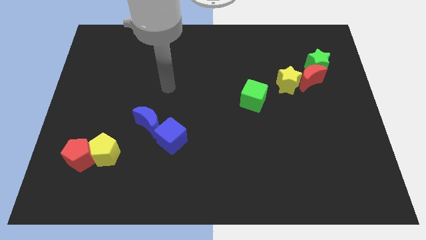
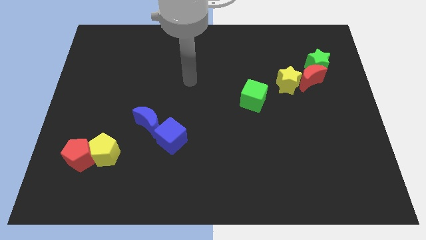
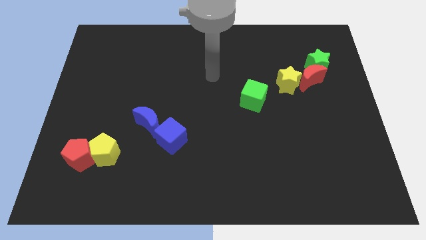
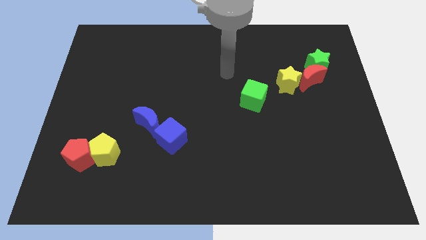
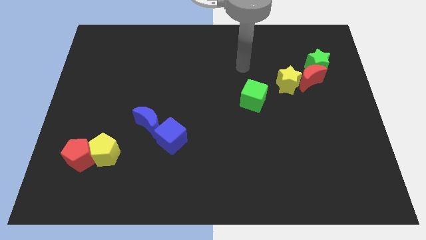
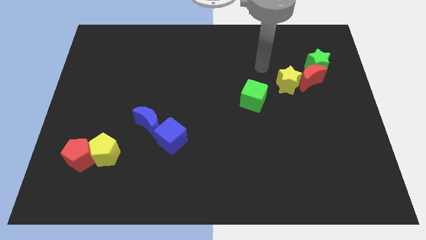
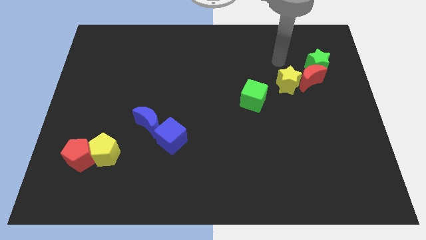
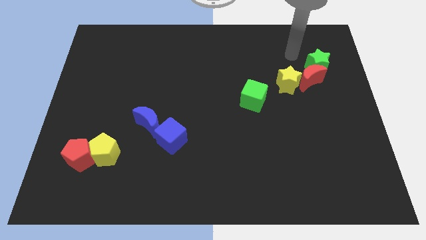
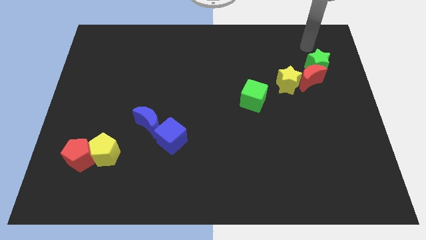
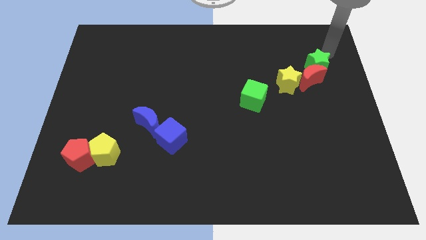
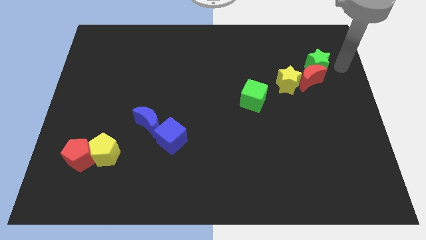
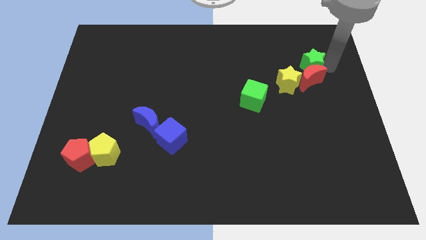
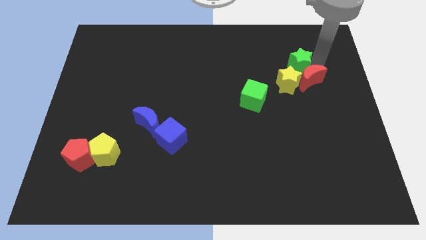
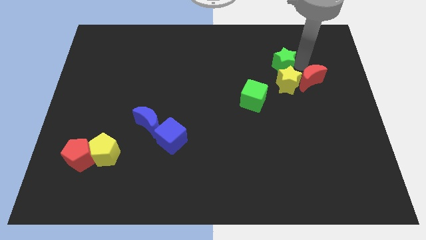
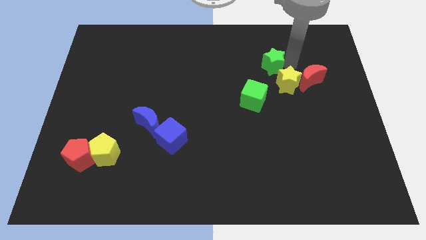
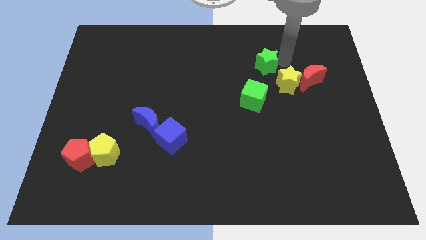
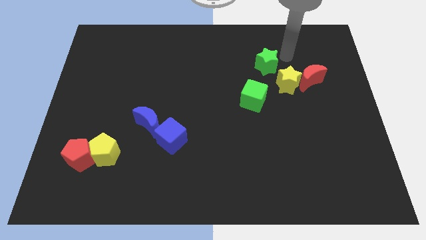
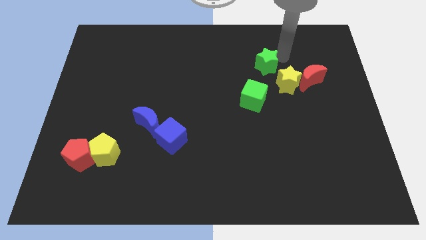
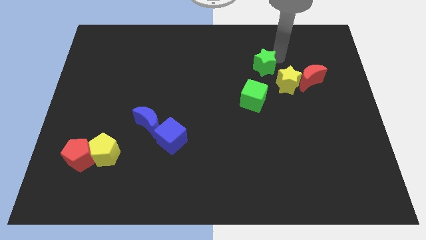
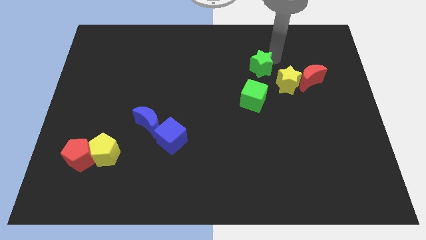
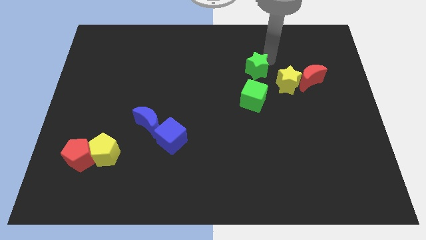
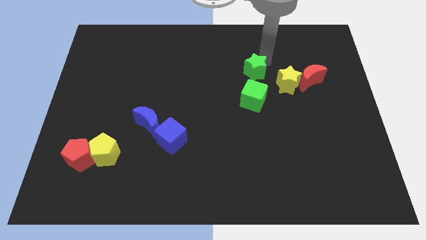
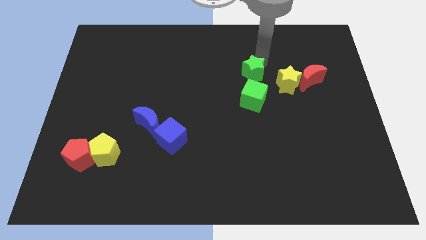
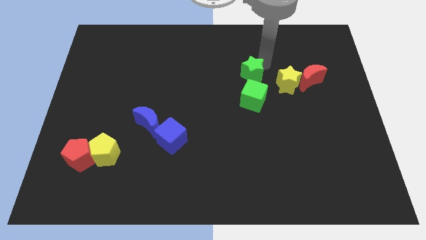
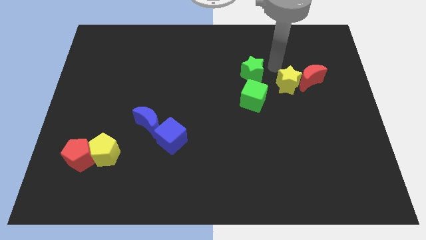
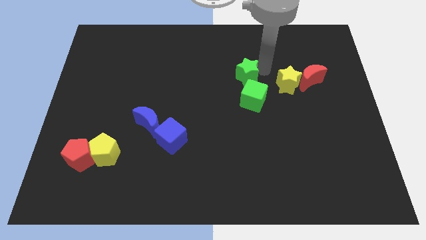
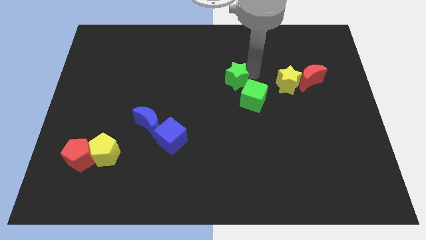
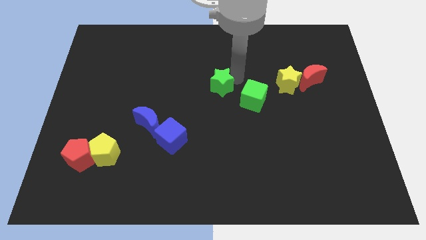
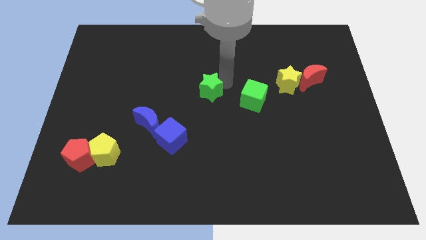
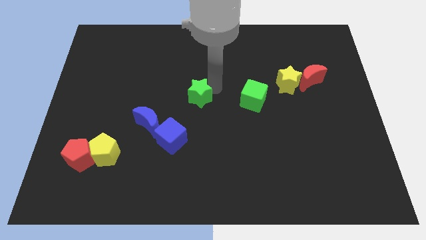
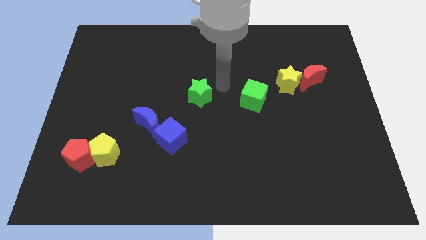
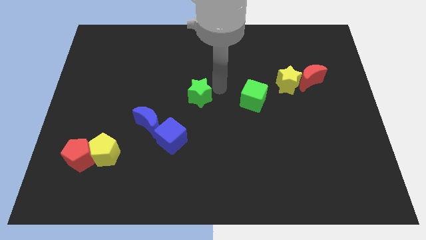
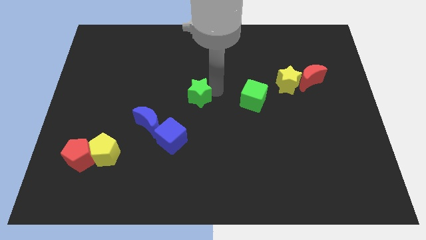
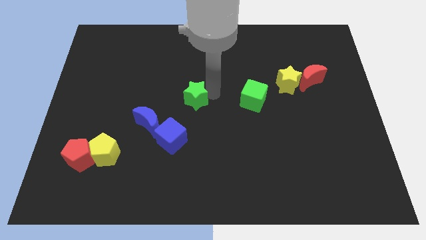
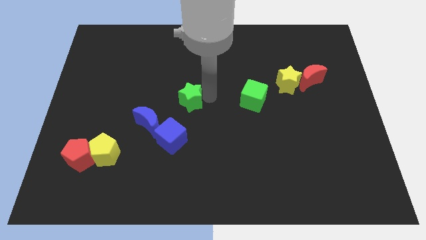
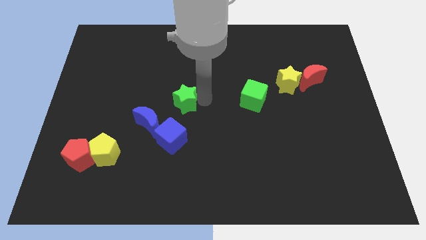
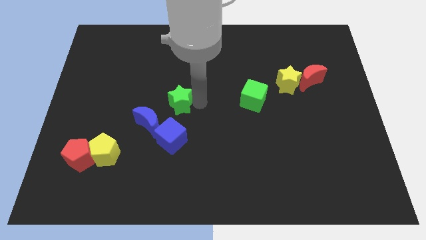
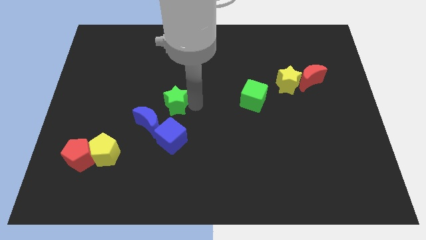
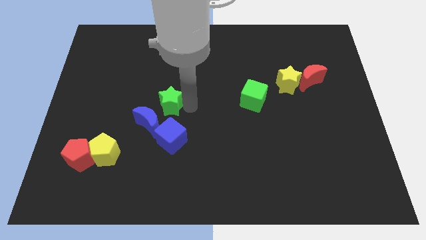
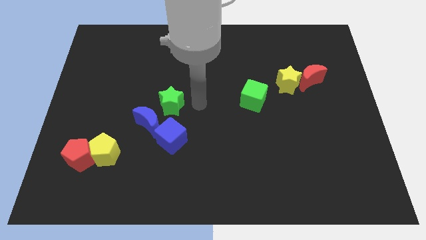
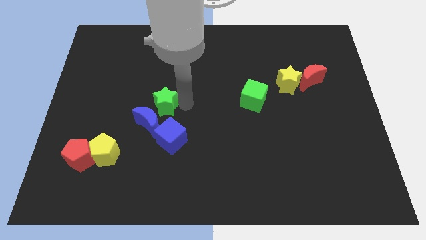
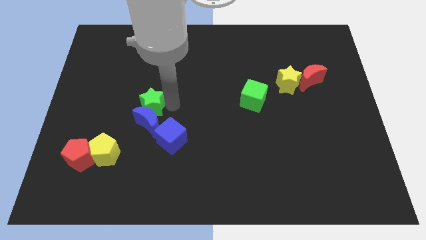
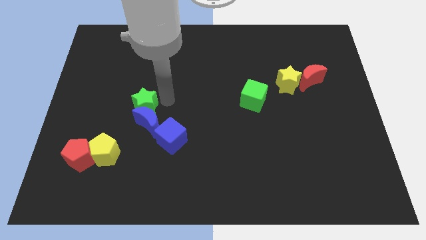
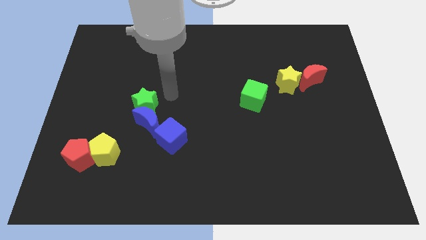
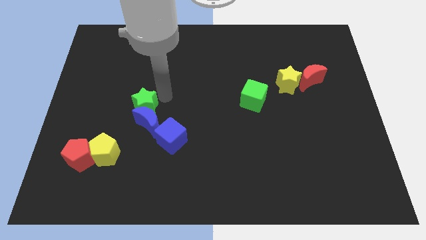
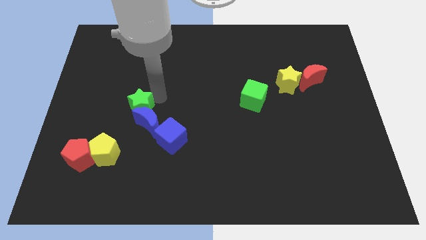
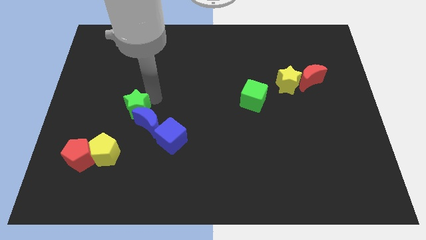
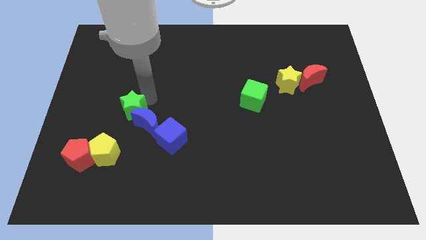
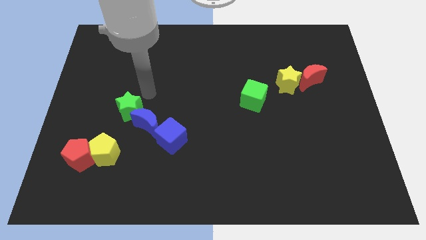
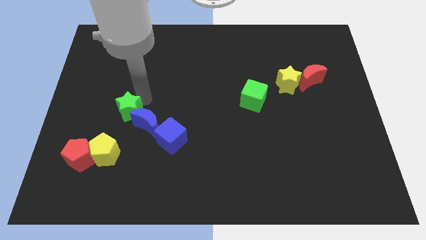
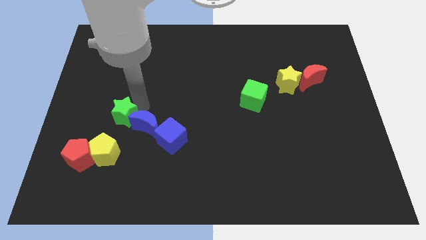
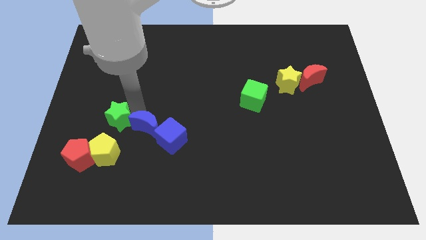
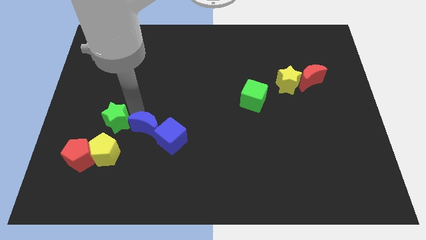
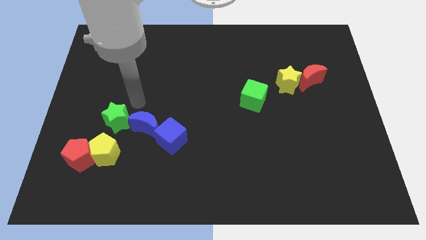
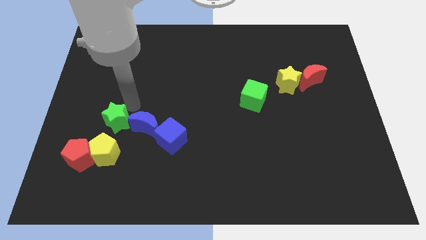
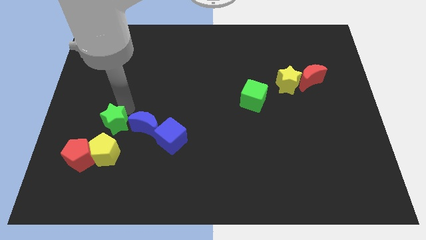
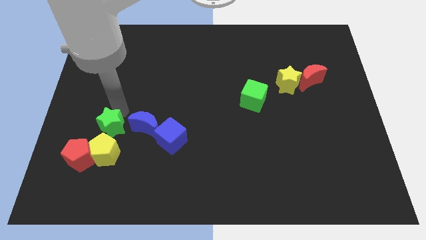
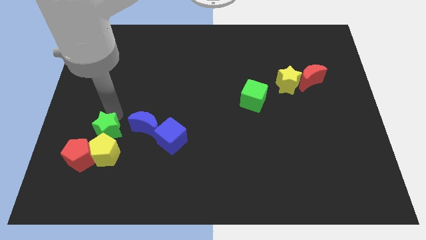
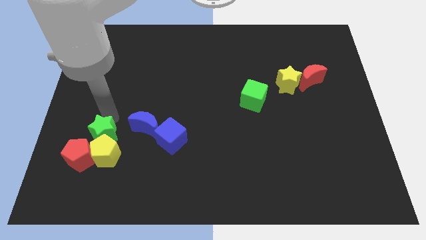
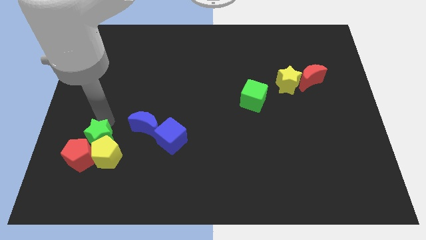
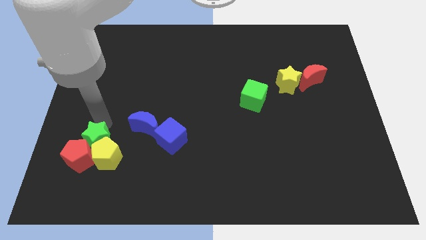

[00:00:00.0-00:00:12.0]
move the green star towards the red pentagon

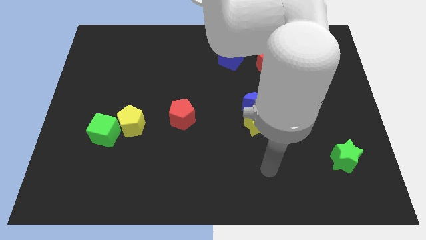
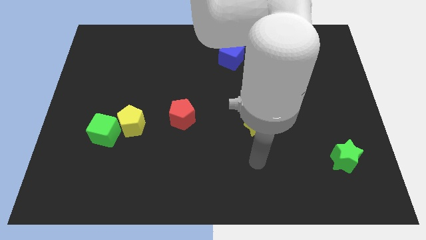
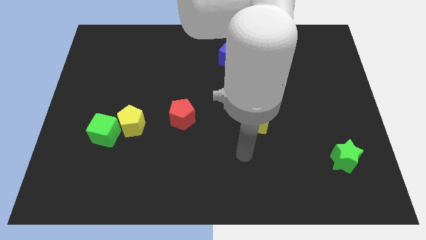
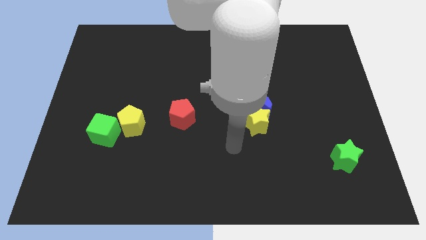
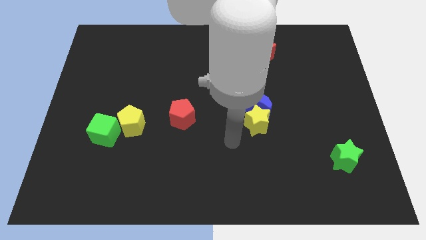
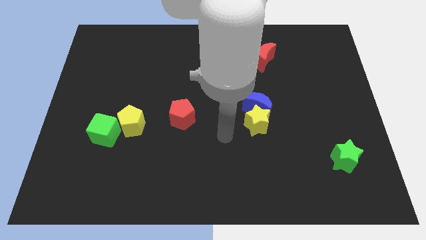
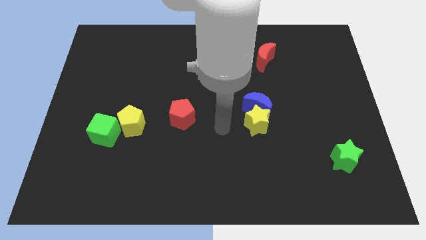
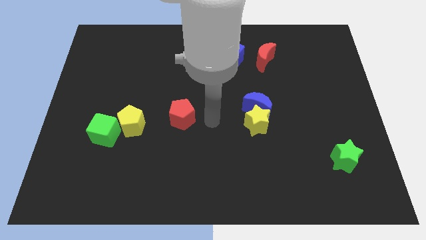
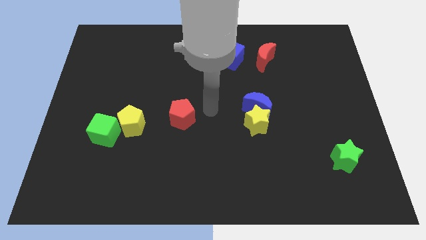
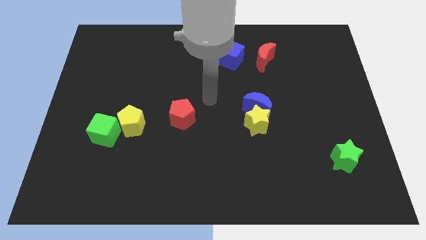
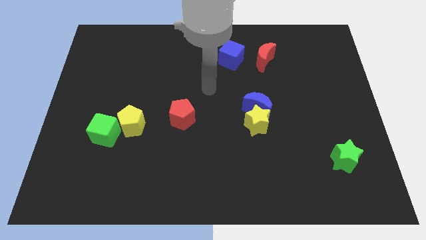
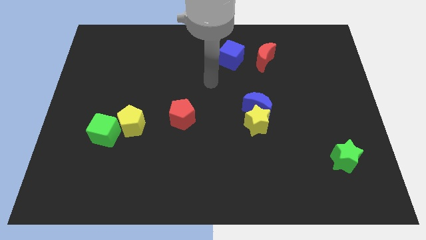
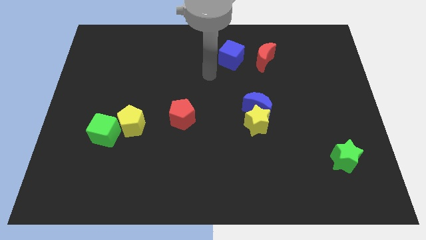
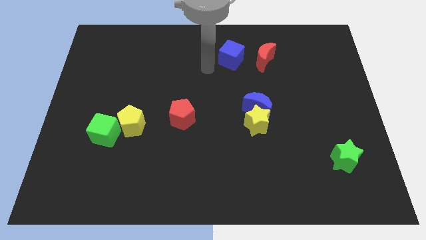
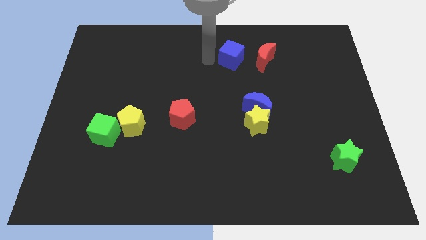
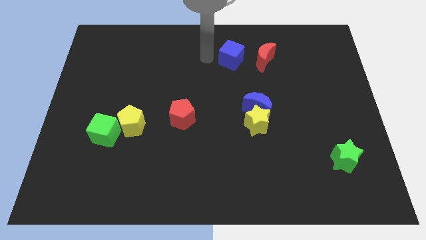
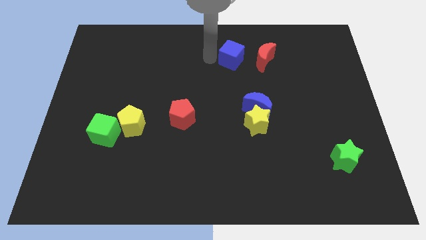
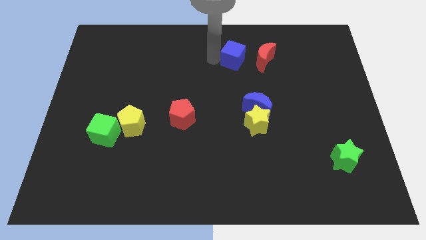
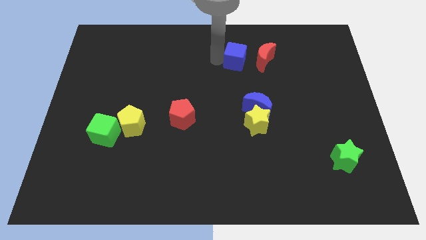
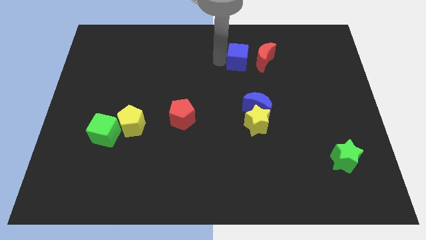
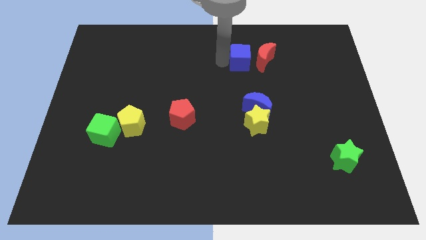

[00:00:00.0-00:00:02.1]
push the blue cube next to the red moon
